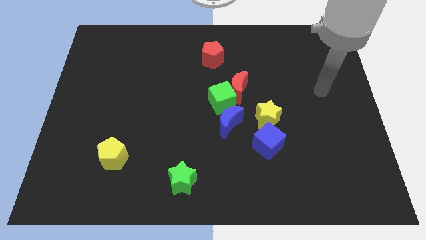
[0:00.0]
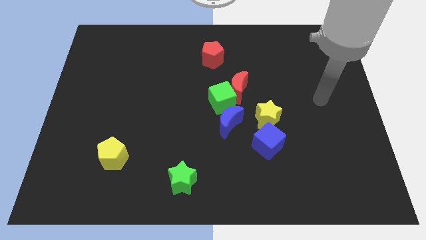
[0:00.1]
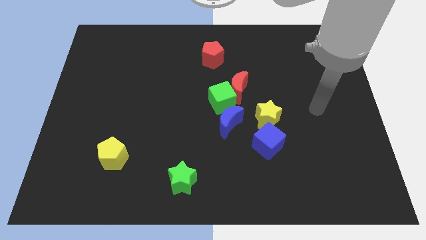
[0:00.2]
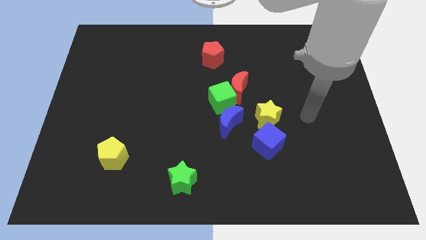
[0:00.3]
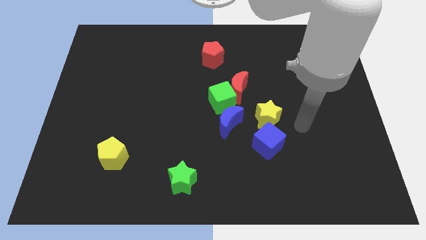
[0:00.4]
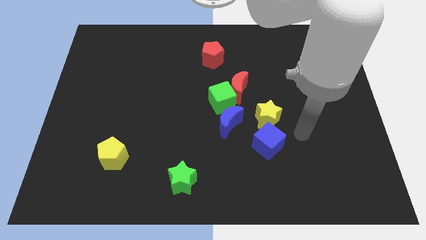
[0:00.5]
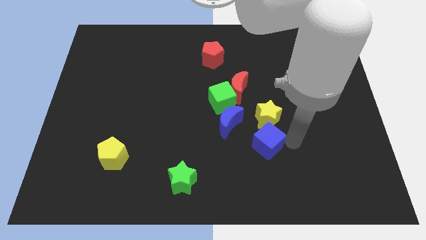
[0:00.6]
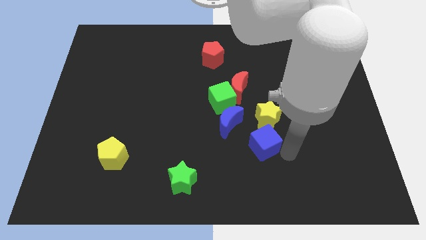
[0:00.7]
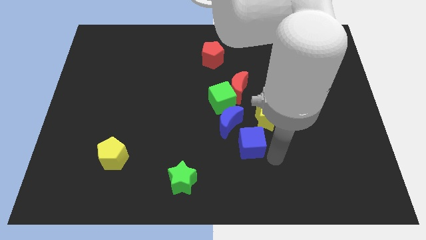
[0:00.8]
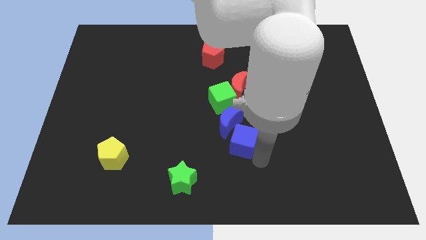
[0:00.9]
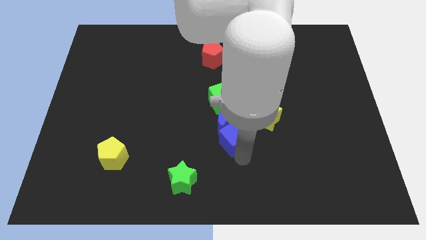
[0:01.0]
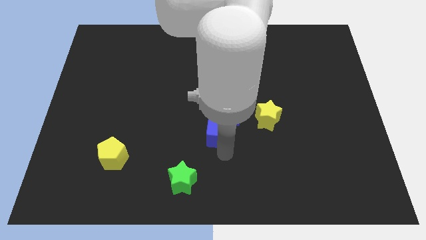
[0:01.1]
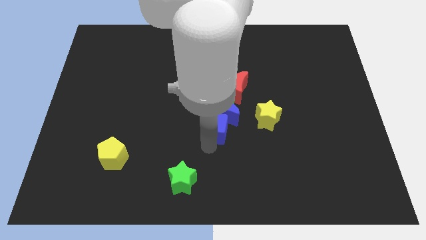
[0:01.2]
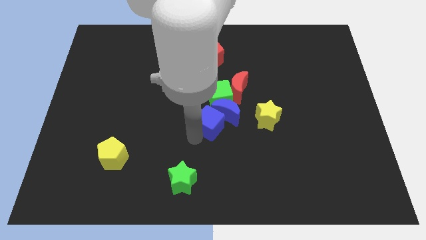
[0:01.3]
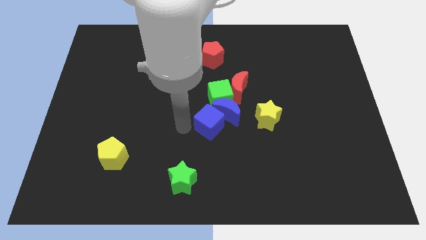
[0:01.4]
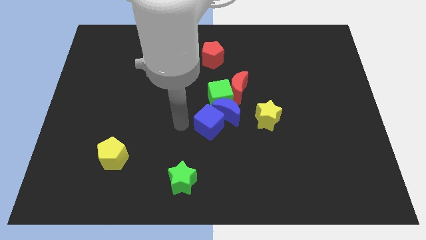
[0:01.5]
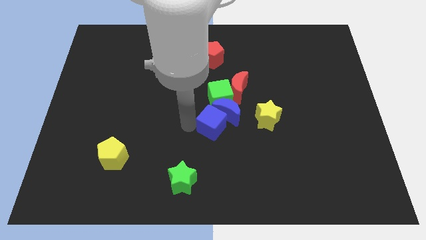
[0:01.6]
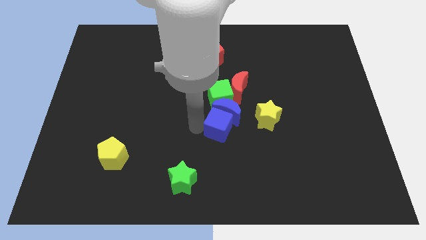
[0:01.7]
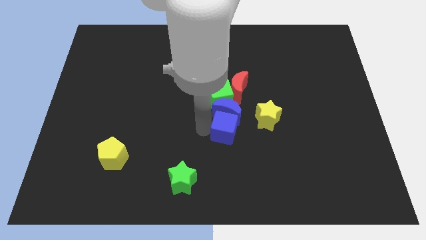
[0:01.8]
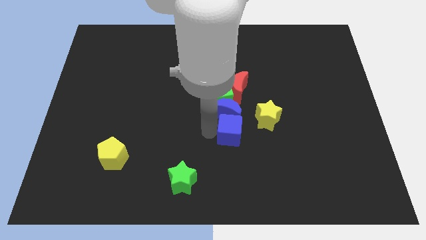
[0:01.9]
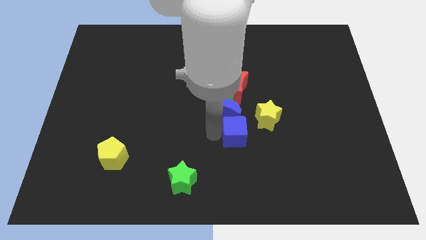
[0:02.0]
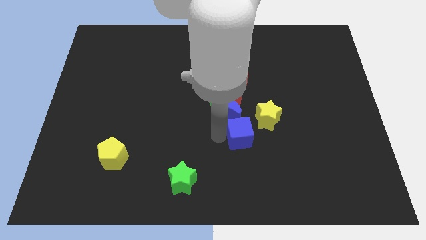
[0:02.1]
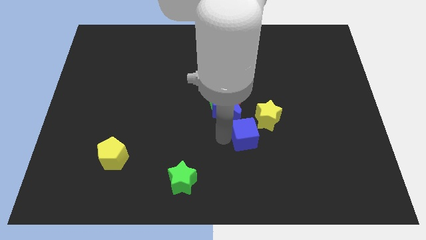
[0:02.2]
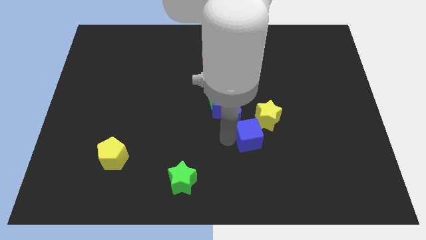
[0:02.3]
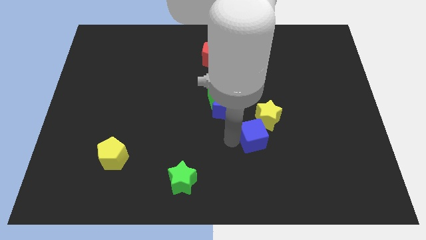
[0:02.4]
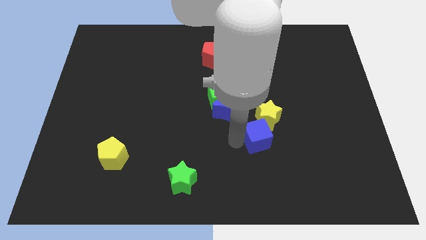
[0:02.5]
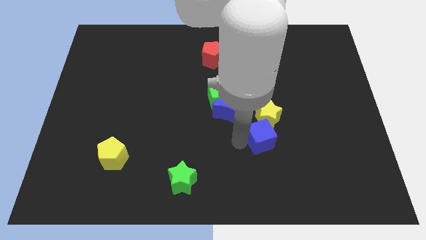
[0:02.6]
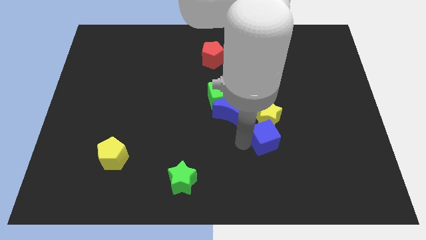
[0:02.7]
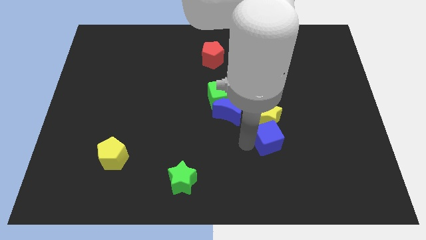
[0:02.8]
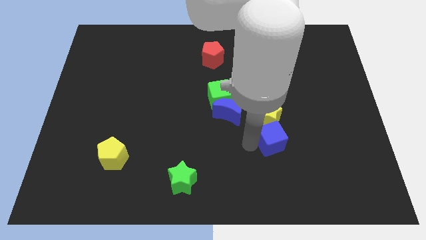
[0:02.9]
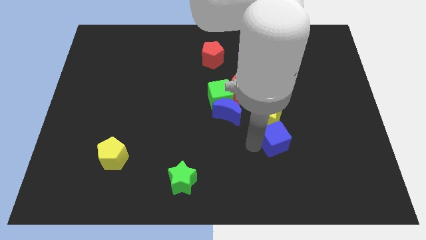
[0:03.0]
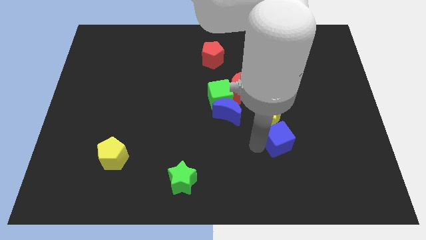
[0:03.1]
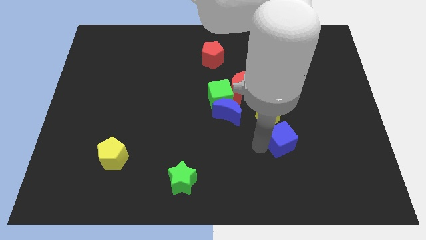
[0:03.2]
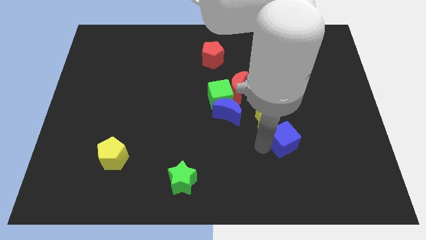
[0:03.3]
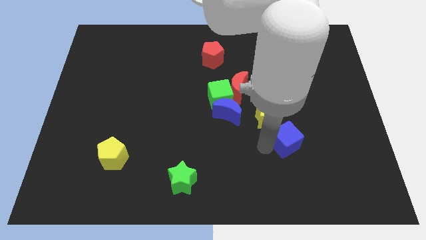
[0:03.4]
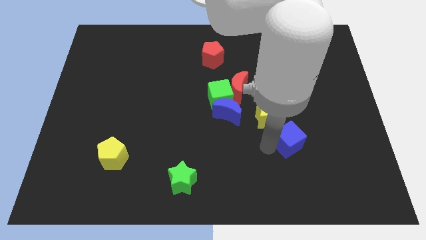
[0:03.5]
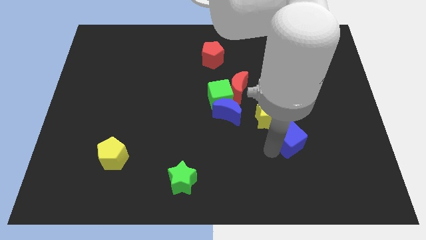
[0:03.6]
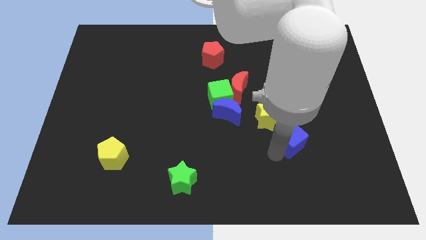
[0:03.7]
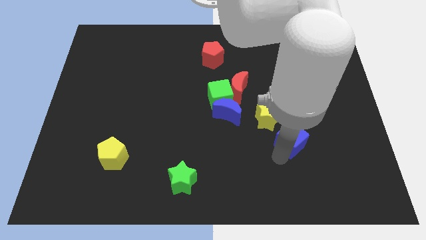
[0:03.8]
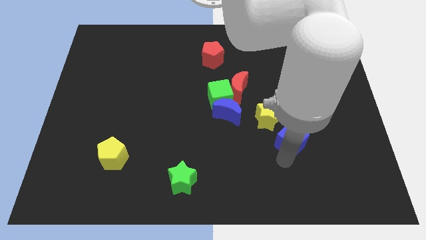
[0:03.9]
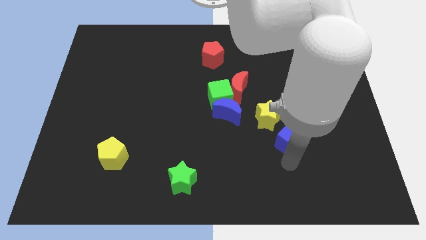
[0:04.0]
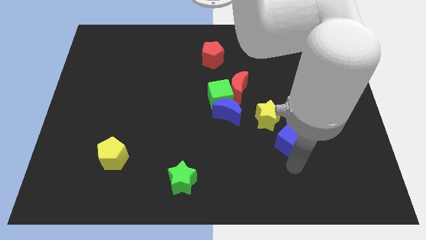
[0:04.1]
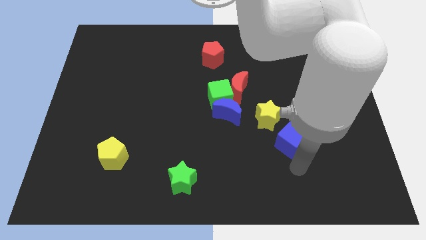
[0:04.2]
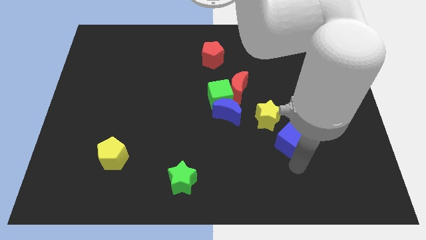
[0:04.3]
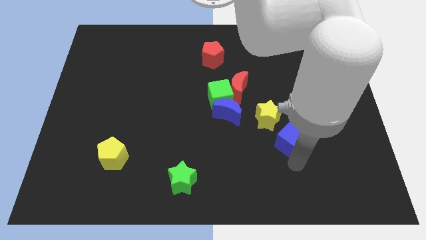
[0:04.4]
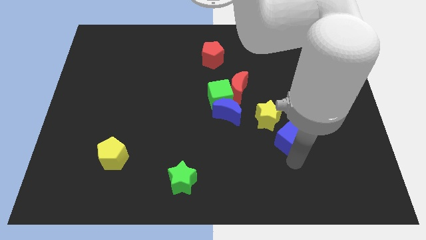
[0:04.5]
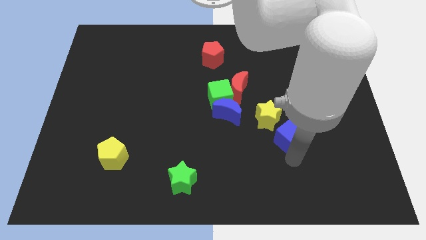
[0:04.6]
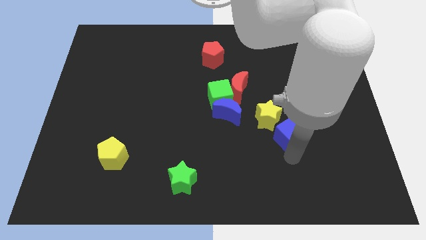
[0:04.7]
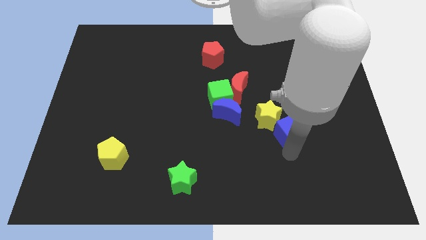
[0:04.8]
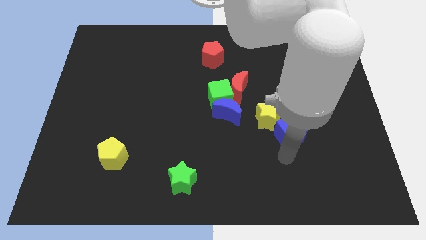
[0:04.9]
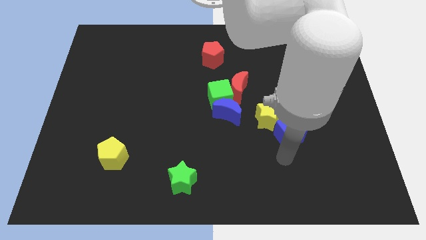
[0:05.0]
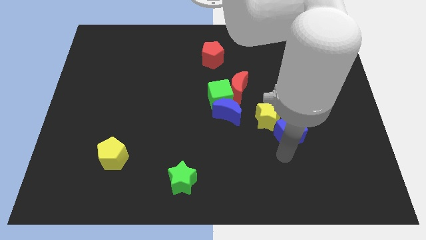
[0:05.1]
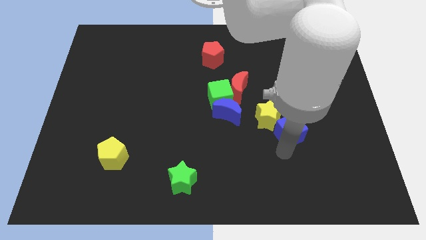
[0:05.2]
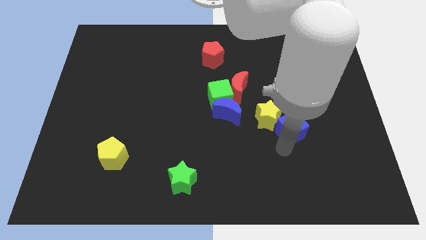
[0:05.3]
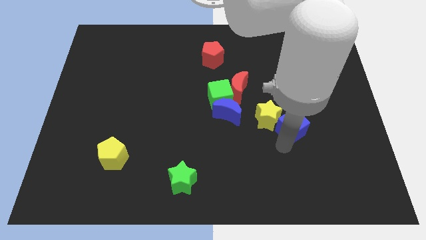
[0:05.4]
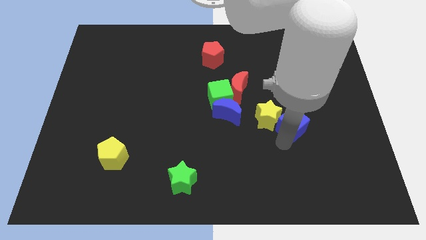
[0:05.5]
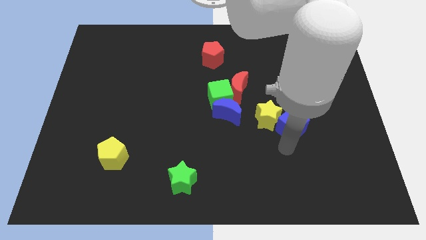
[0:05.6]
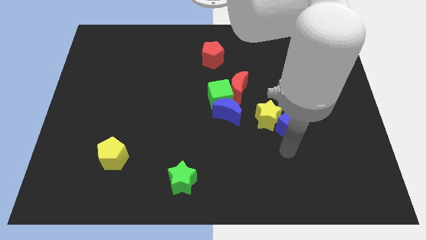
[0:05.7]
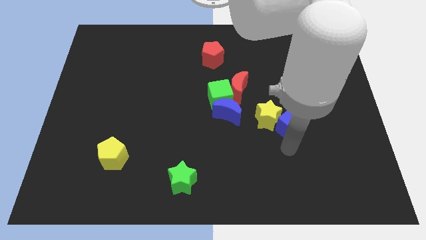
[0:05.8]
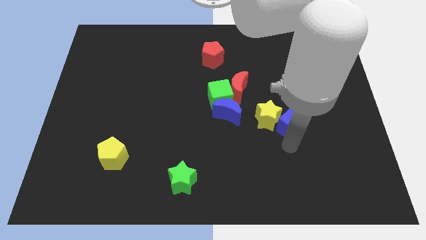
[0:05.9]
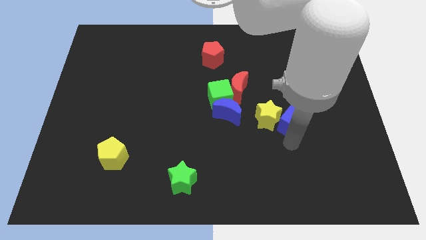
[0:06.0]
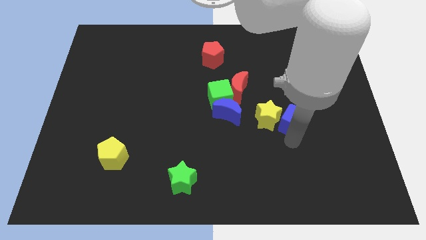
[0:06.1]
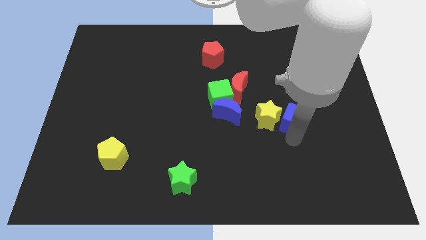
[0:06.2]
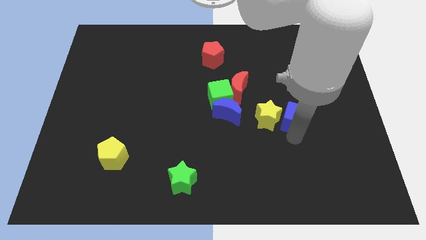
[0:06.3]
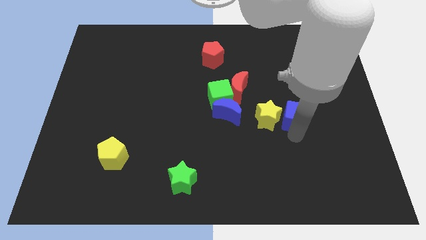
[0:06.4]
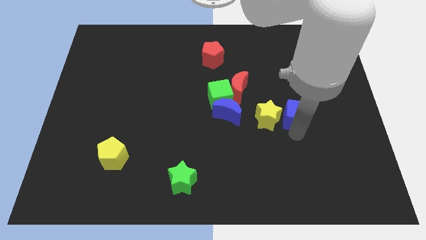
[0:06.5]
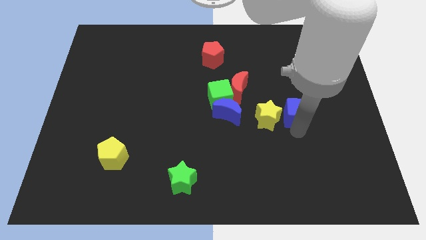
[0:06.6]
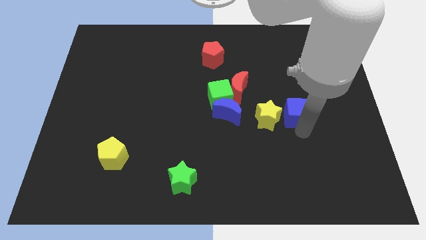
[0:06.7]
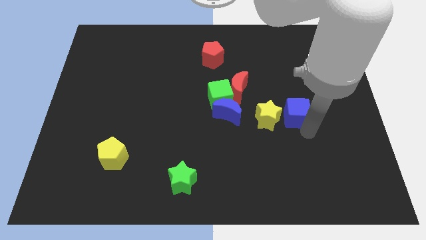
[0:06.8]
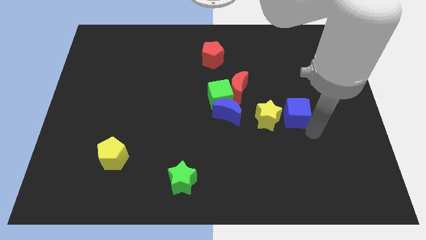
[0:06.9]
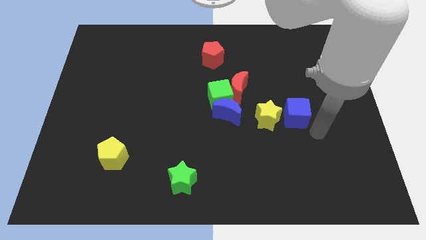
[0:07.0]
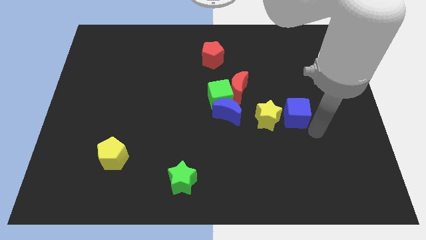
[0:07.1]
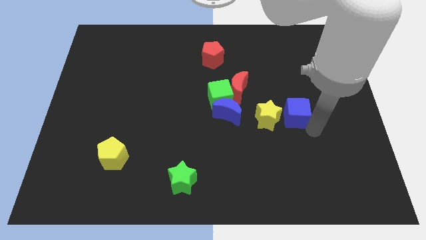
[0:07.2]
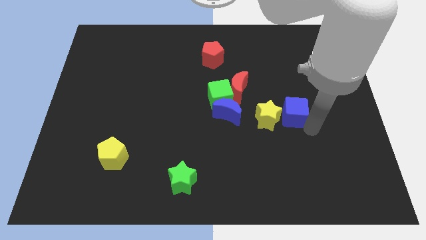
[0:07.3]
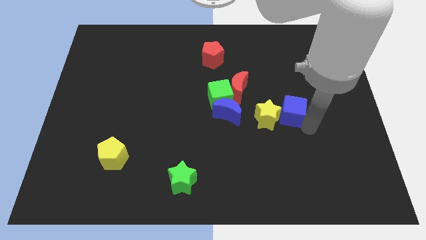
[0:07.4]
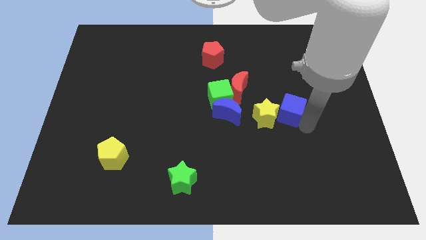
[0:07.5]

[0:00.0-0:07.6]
slide the blue cube a bit upwards

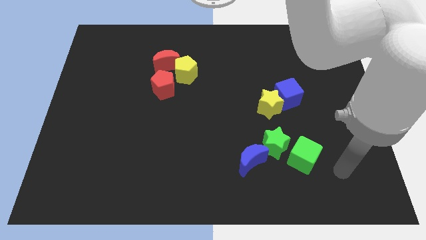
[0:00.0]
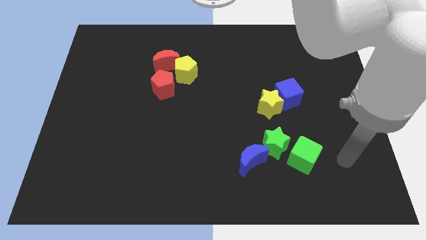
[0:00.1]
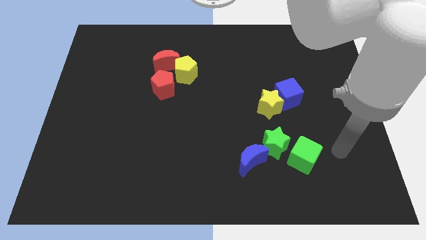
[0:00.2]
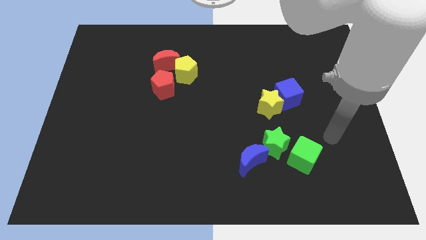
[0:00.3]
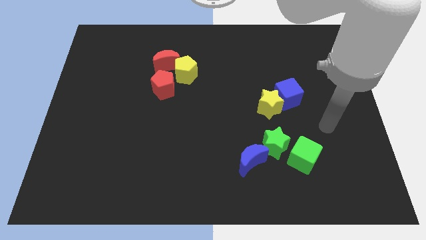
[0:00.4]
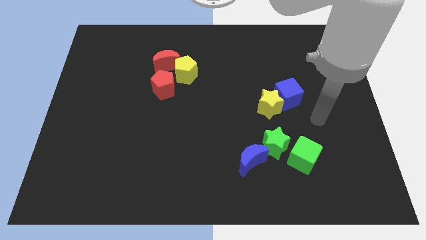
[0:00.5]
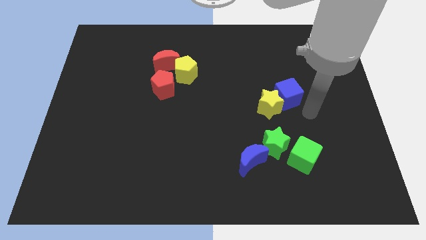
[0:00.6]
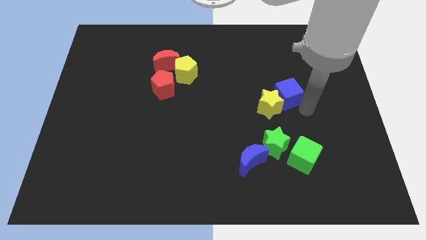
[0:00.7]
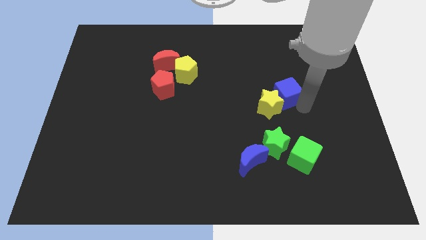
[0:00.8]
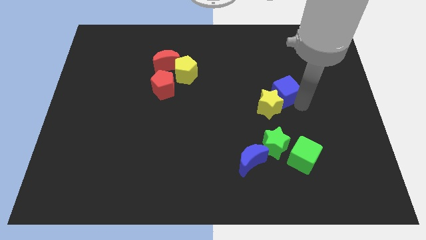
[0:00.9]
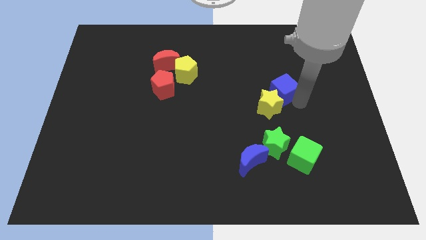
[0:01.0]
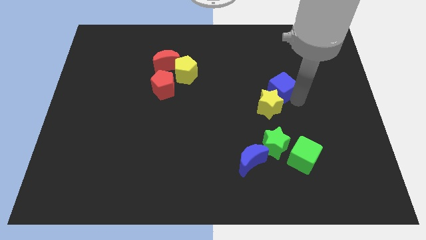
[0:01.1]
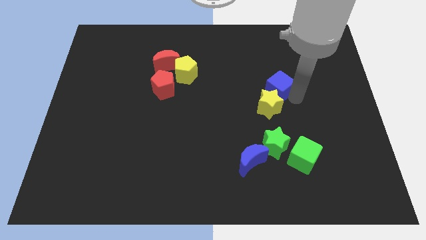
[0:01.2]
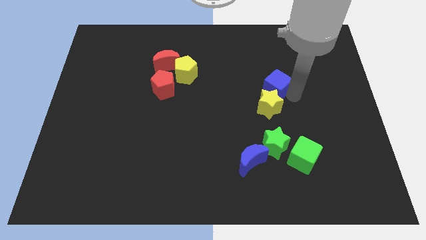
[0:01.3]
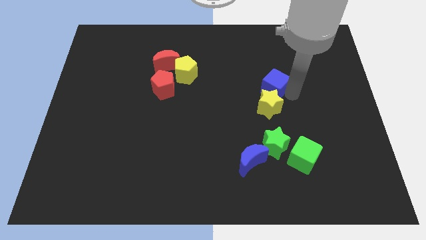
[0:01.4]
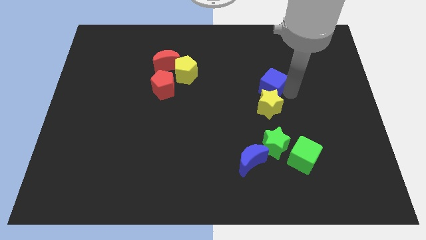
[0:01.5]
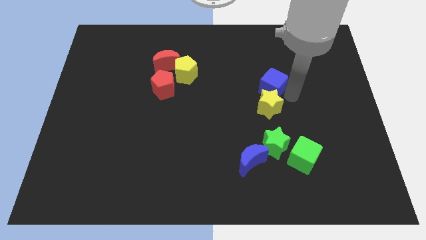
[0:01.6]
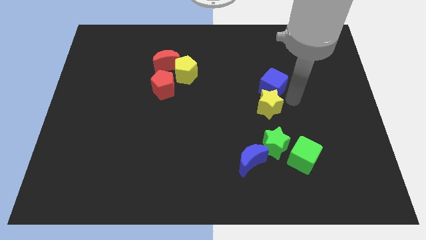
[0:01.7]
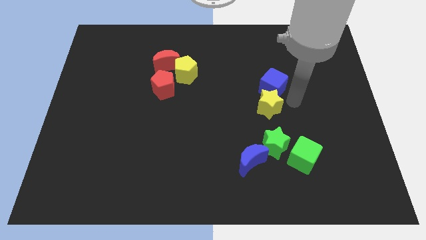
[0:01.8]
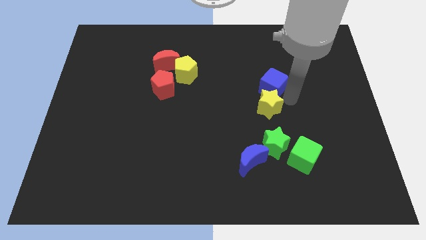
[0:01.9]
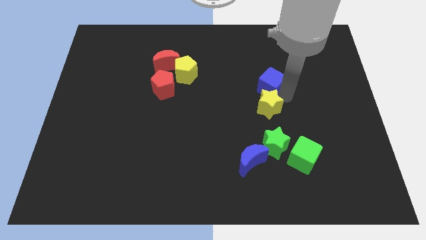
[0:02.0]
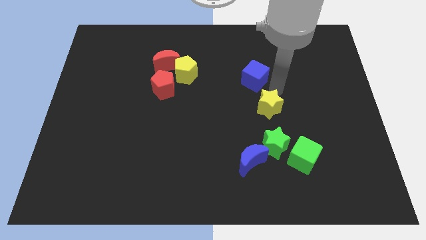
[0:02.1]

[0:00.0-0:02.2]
push the blue cube slightly upwards and to the left diagonally
